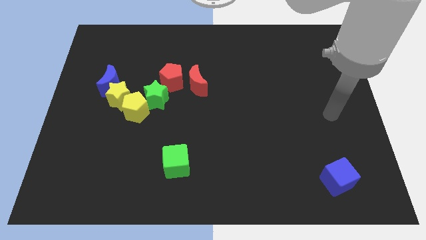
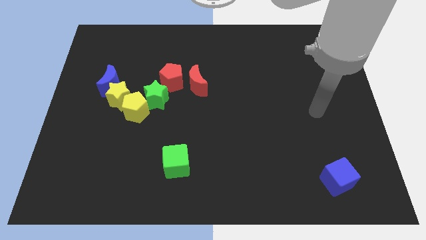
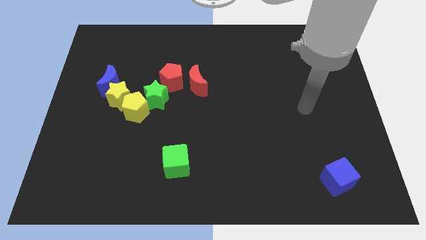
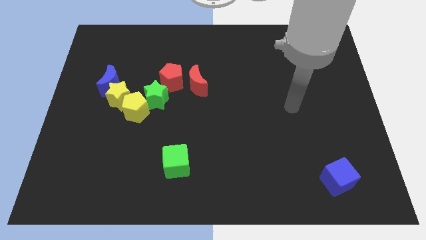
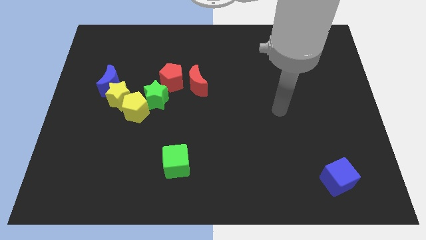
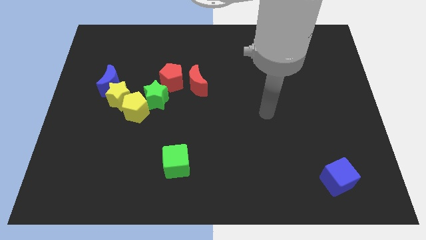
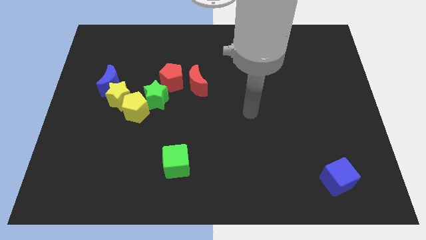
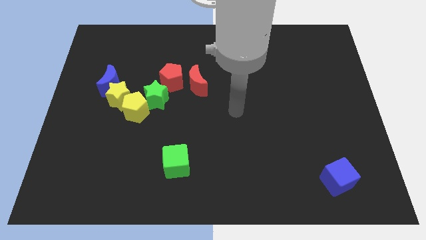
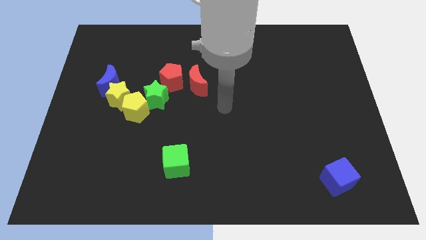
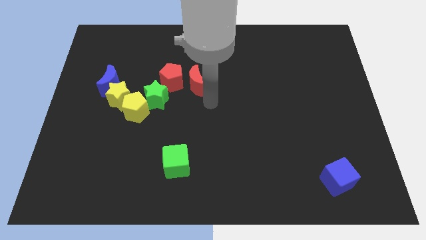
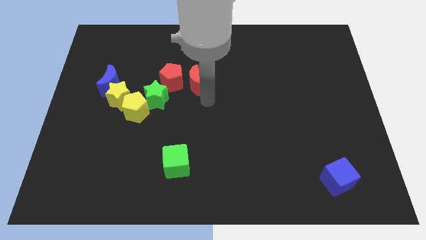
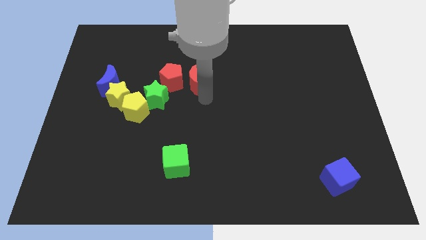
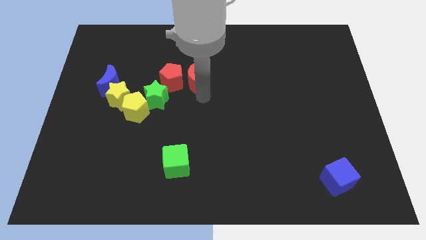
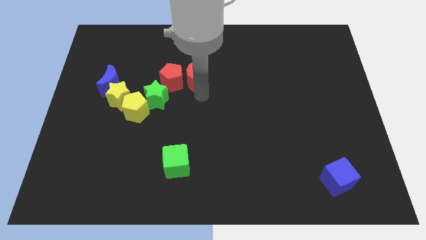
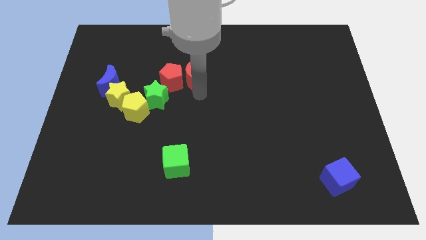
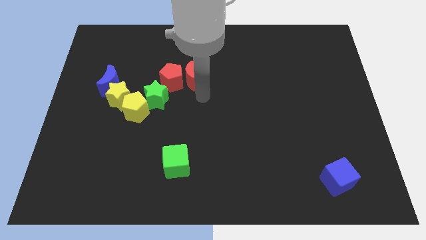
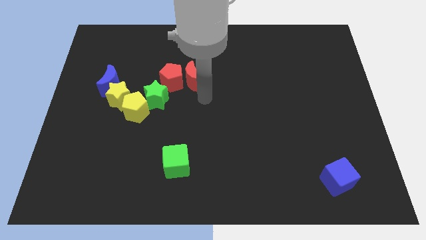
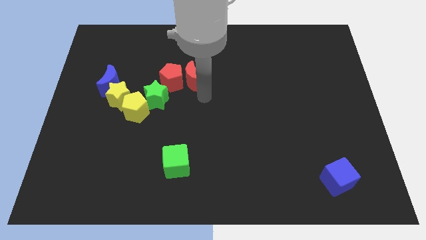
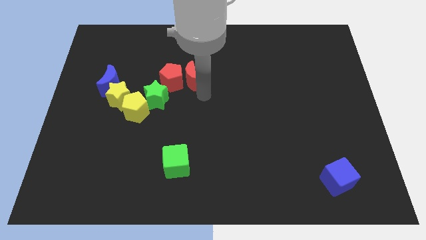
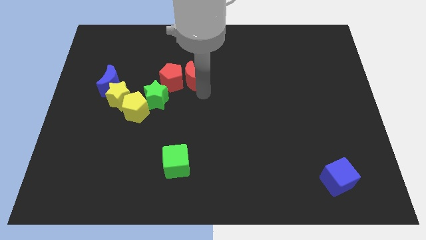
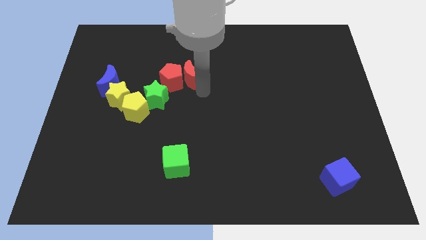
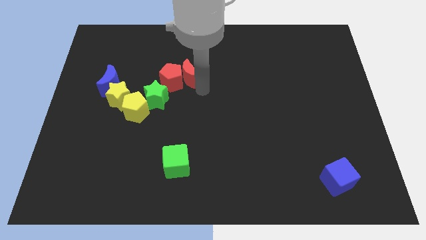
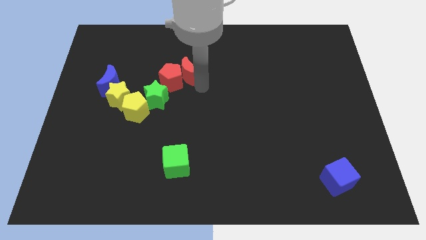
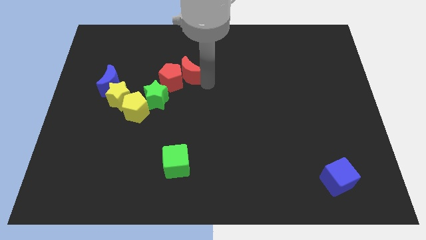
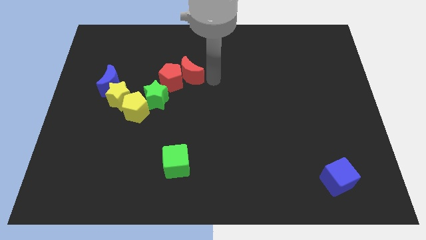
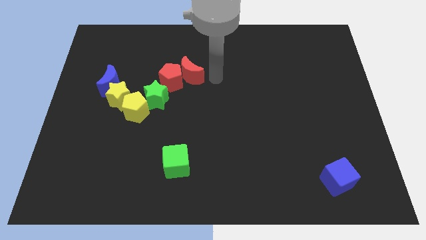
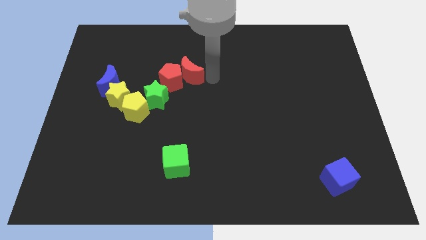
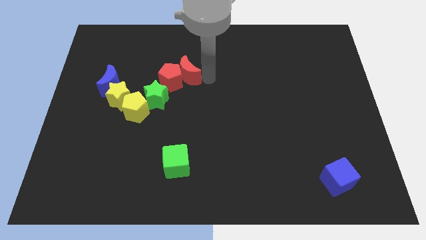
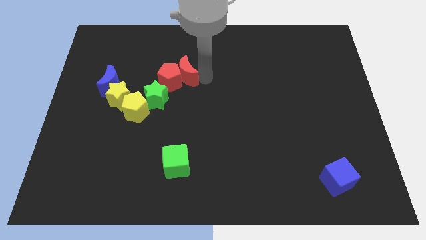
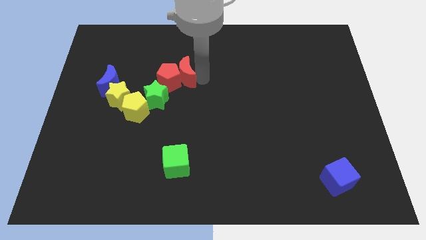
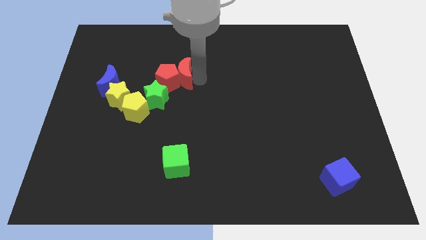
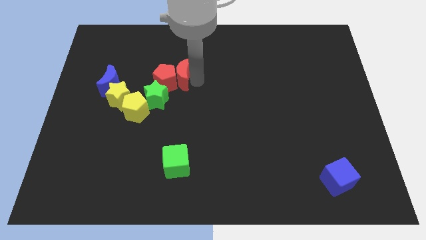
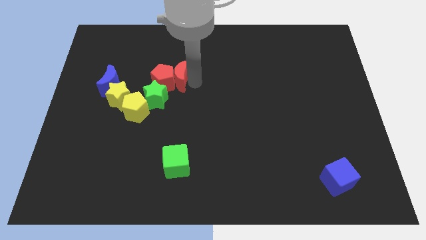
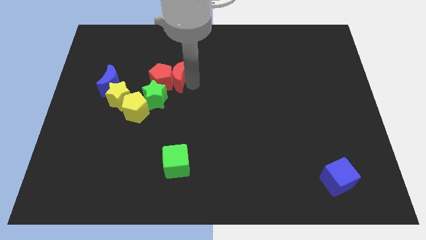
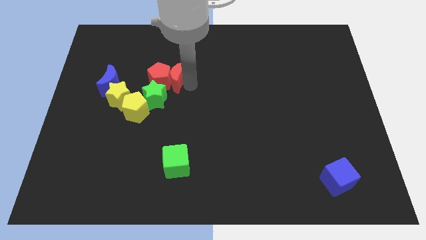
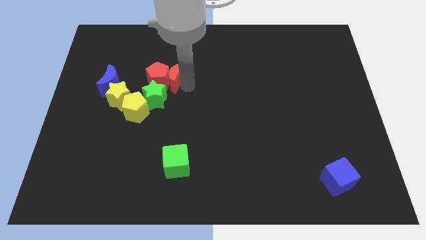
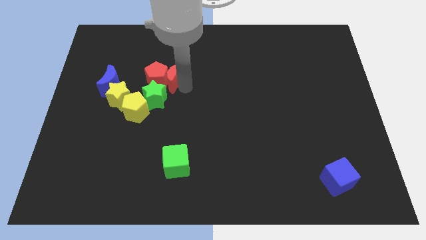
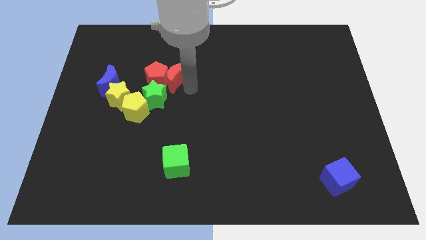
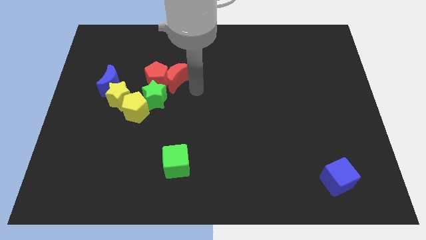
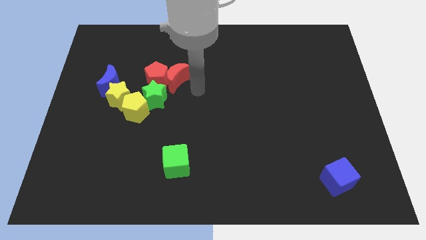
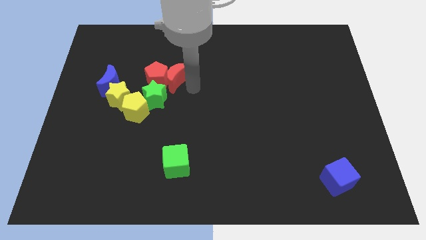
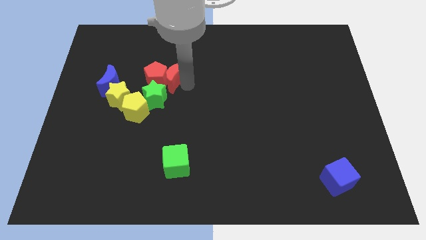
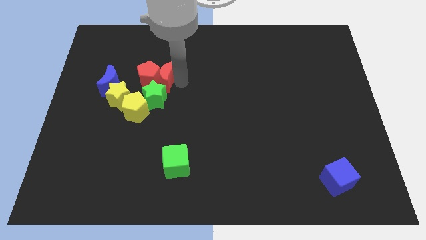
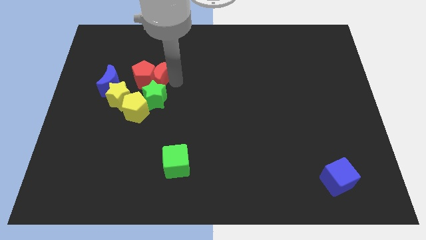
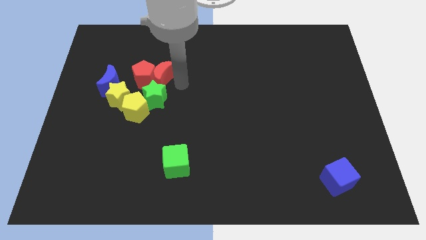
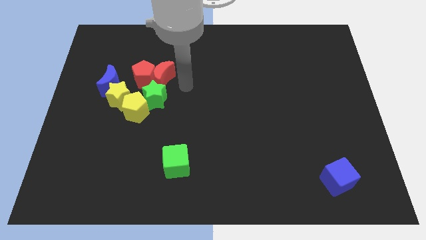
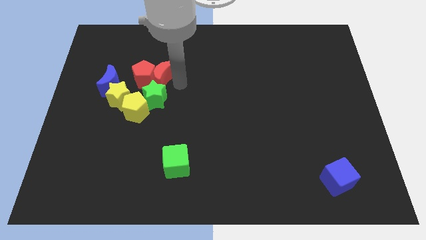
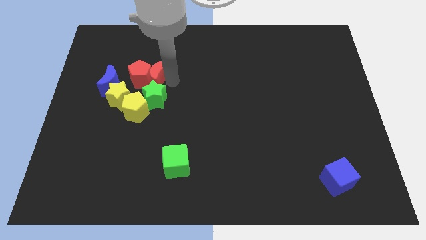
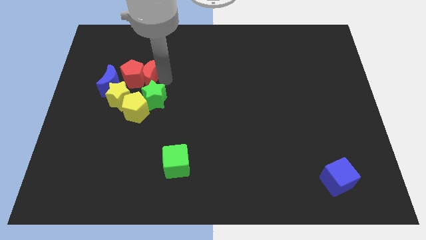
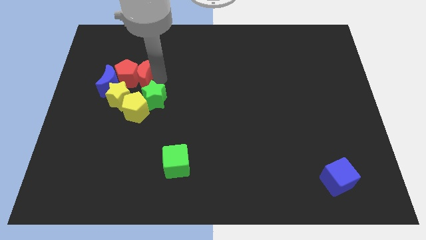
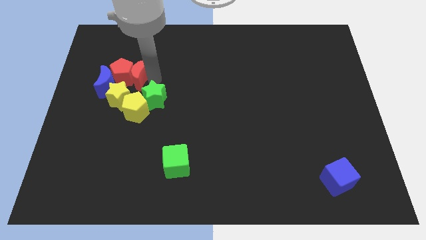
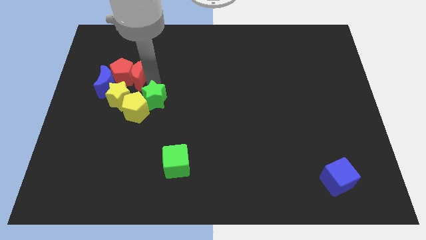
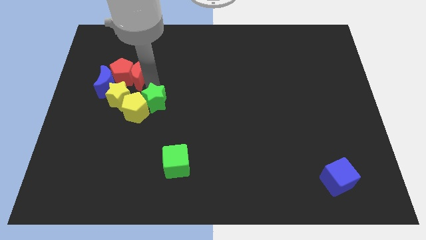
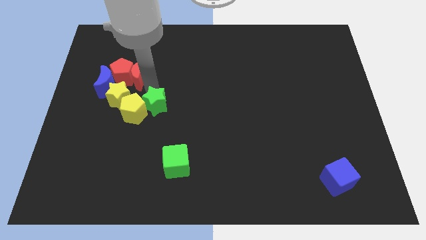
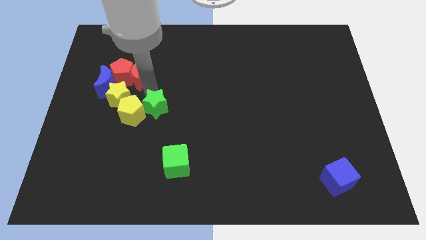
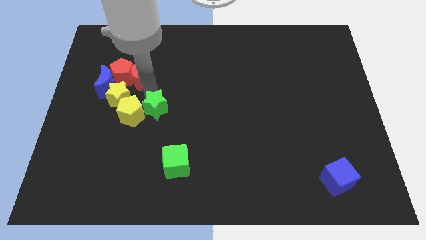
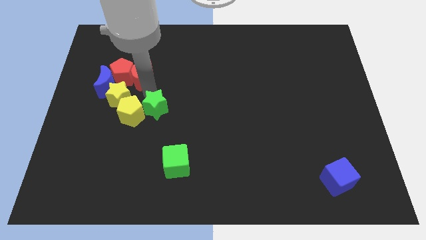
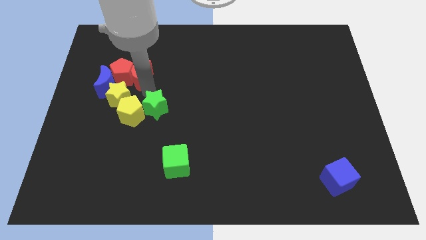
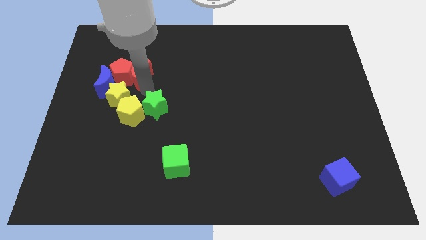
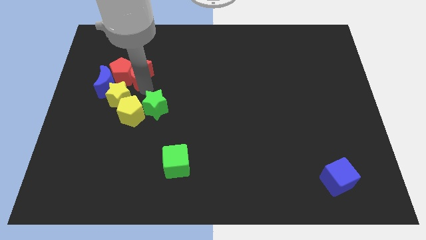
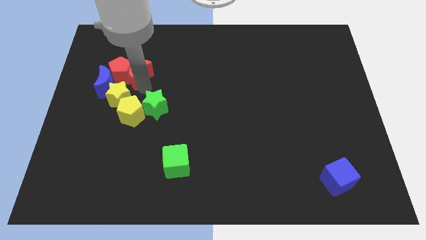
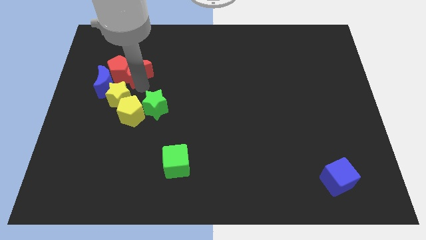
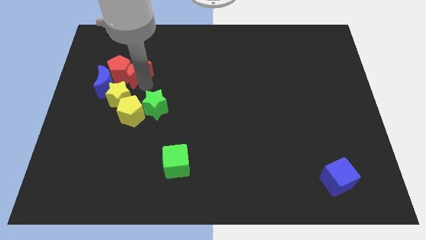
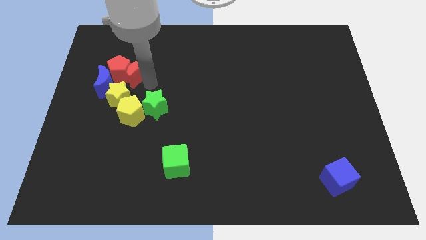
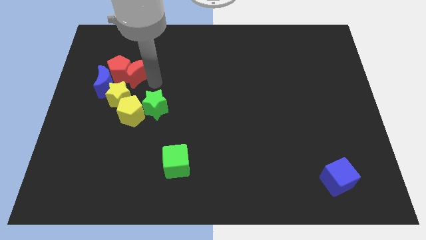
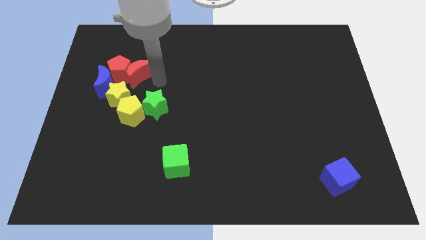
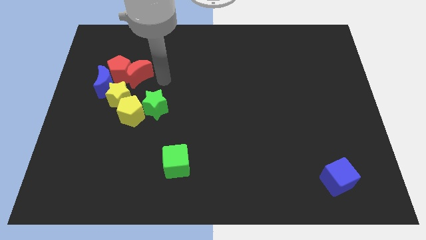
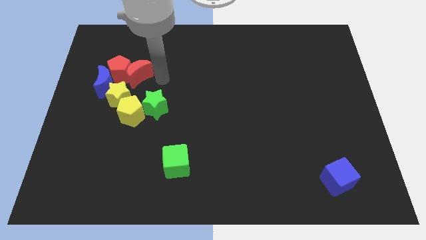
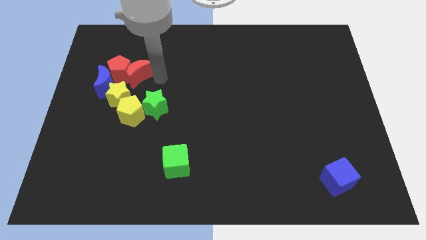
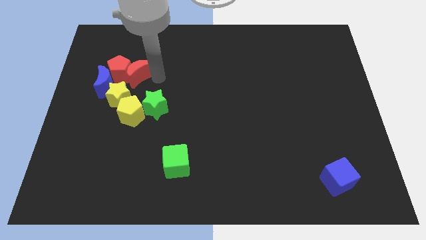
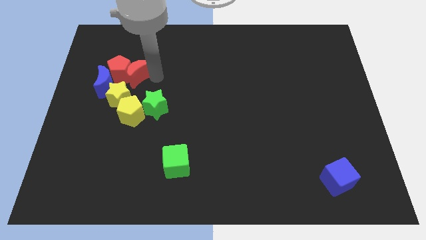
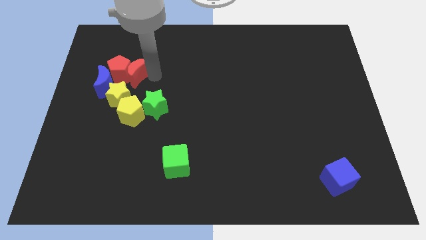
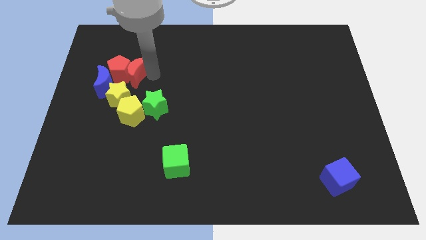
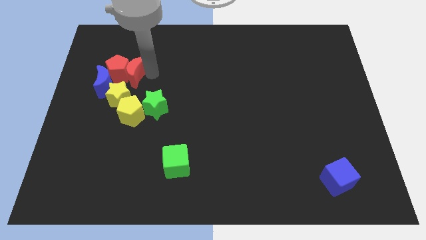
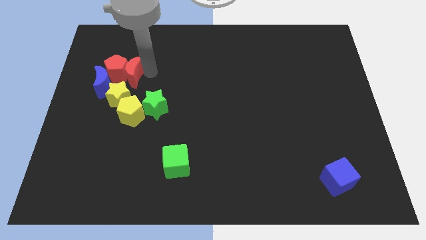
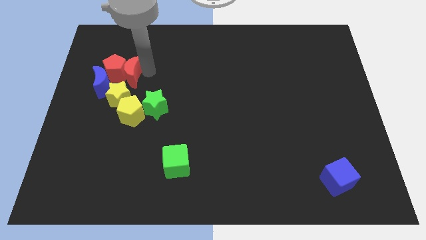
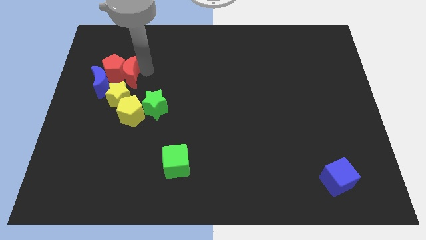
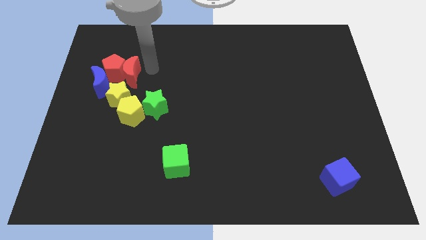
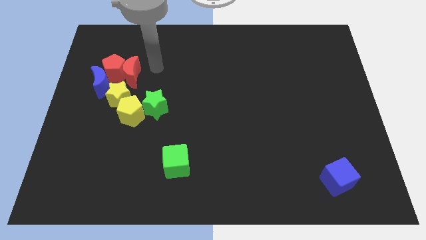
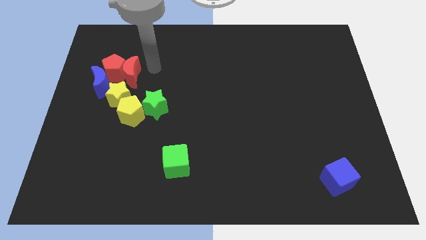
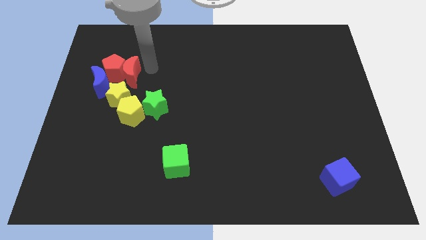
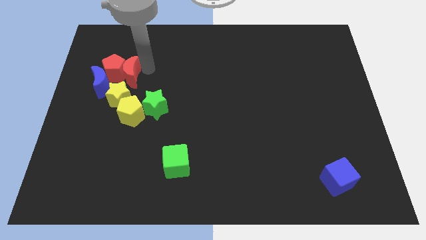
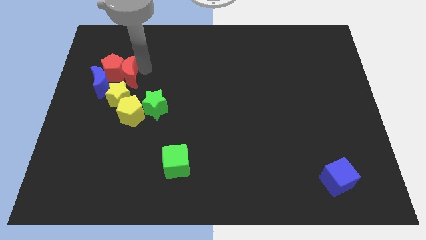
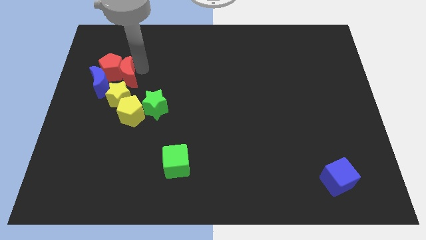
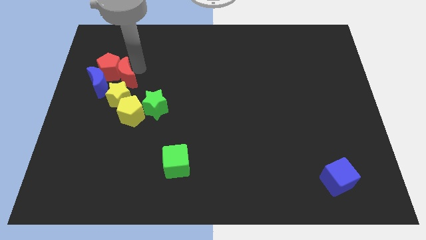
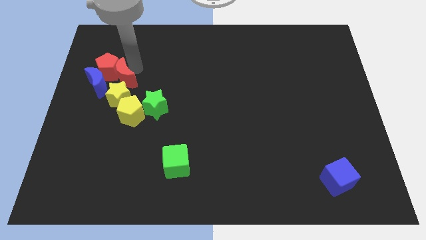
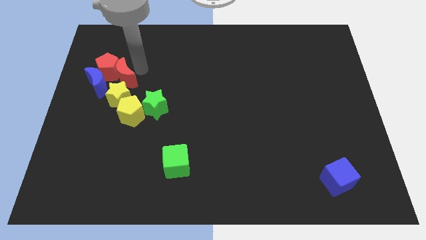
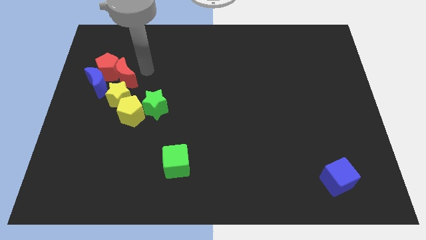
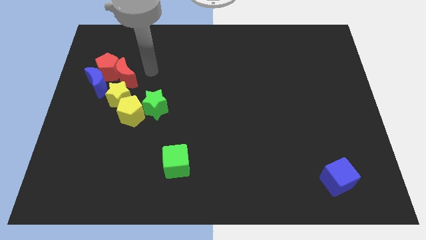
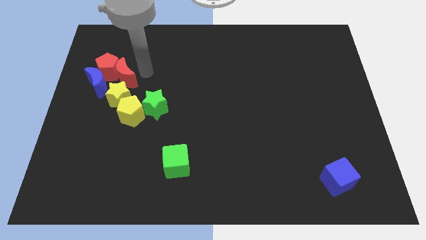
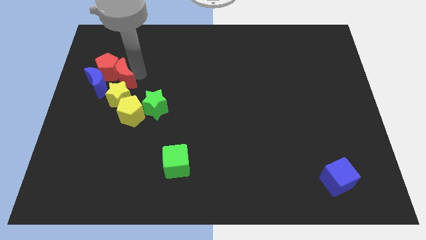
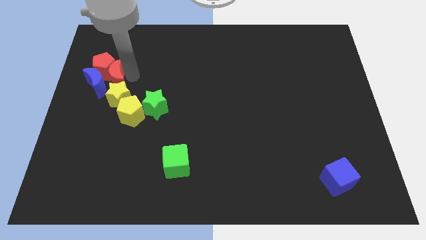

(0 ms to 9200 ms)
move the red moon to the blue moon
